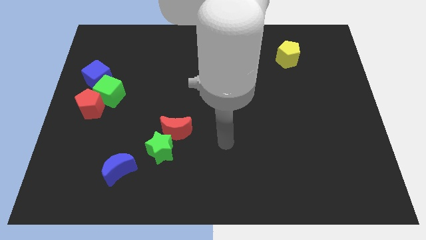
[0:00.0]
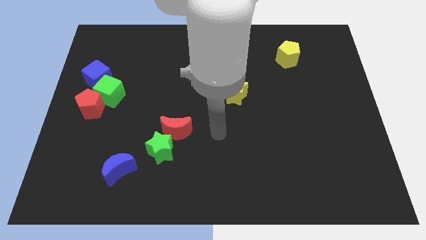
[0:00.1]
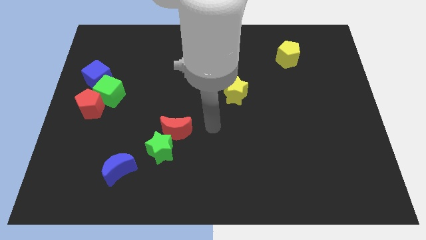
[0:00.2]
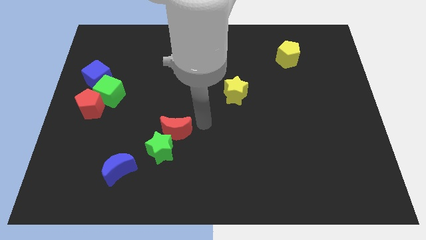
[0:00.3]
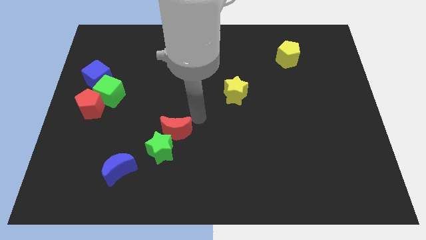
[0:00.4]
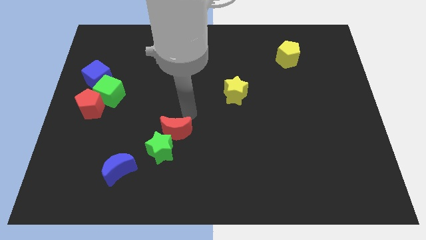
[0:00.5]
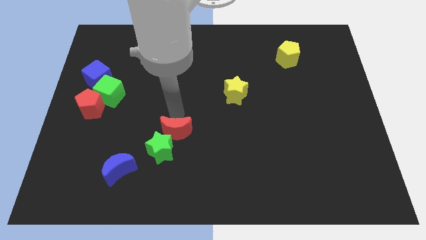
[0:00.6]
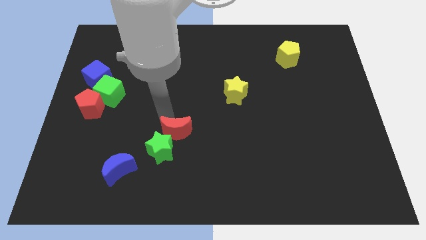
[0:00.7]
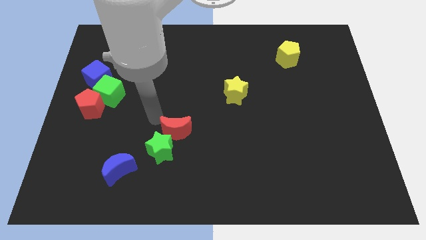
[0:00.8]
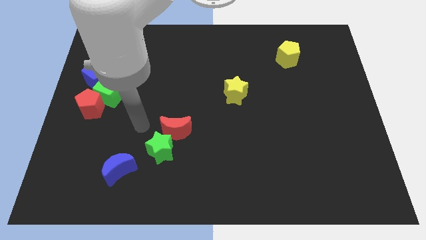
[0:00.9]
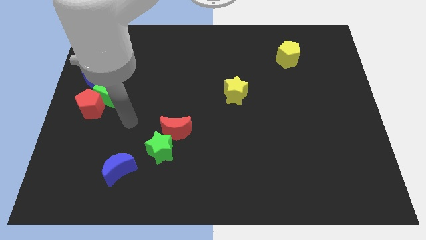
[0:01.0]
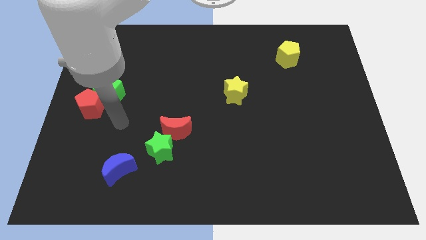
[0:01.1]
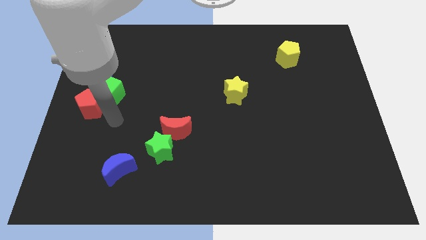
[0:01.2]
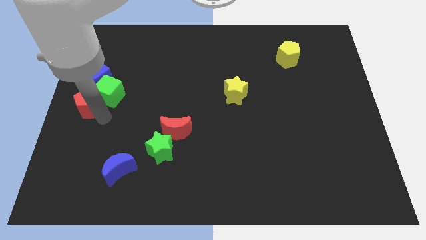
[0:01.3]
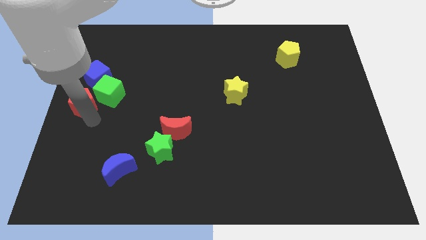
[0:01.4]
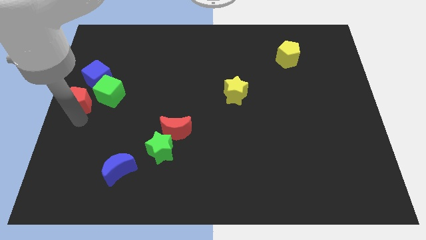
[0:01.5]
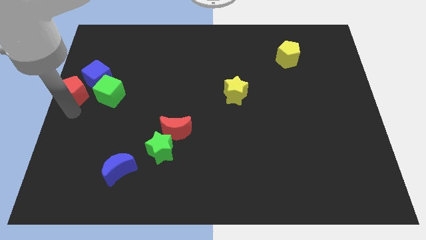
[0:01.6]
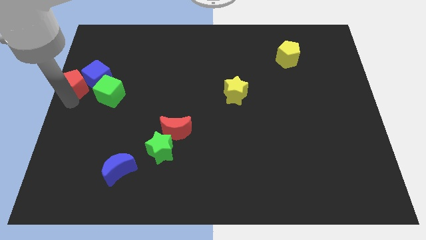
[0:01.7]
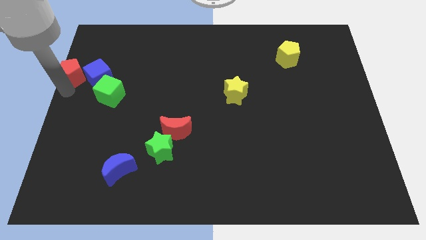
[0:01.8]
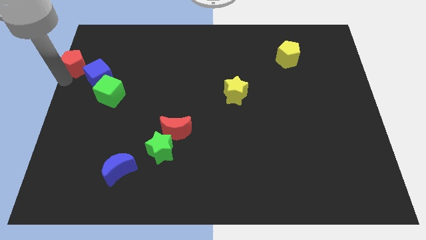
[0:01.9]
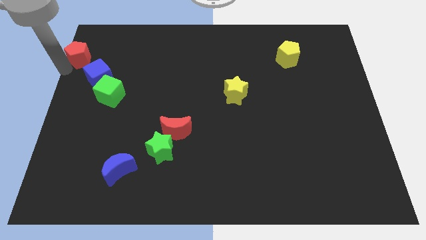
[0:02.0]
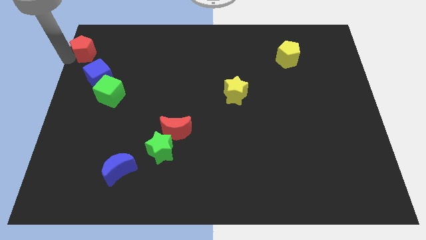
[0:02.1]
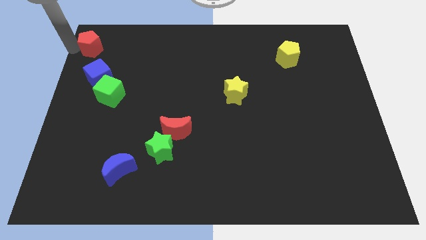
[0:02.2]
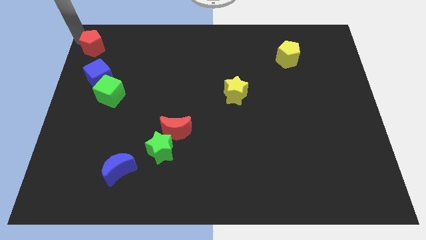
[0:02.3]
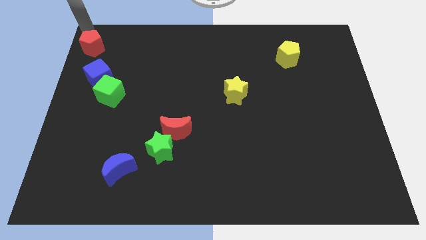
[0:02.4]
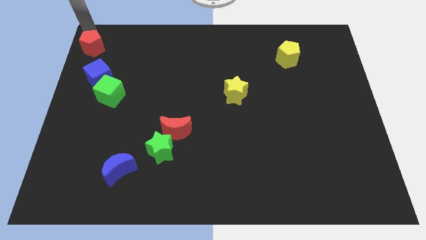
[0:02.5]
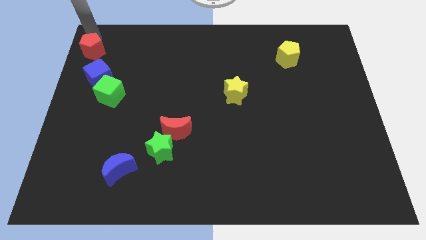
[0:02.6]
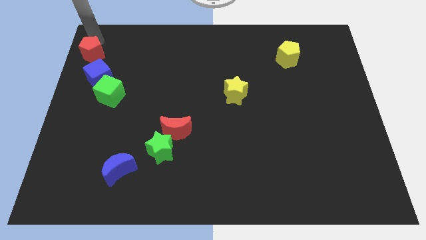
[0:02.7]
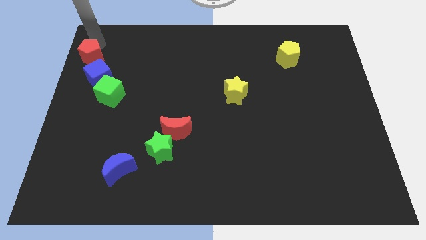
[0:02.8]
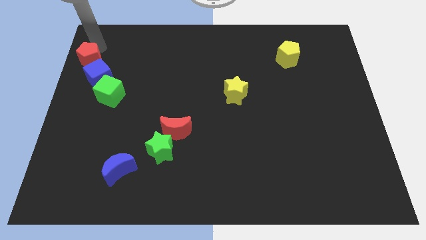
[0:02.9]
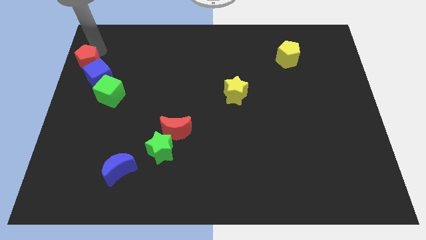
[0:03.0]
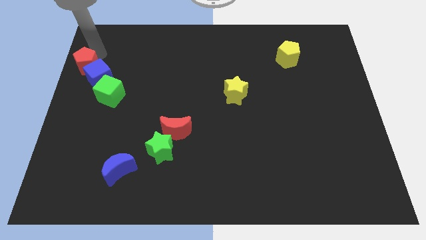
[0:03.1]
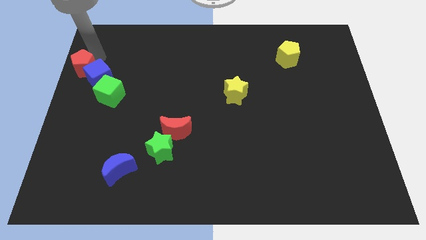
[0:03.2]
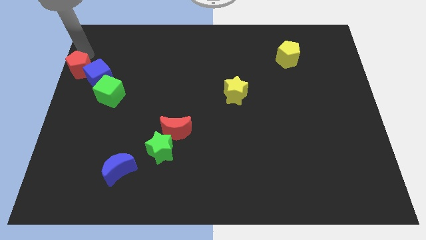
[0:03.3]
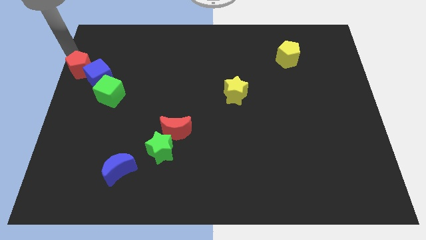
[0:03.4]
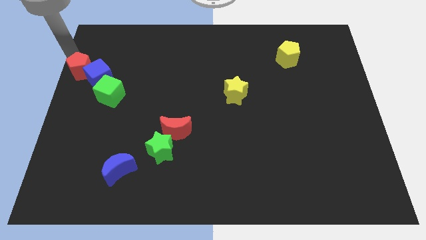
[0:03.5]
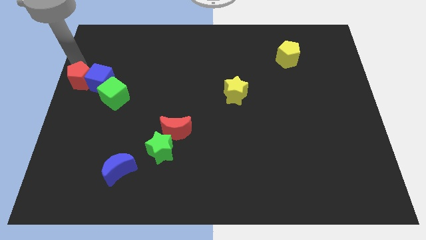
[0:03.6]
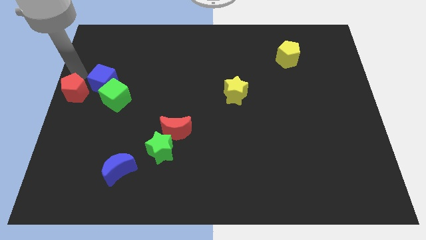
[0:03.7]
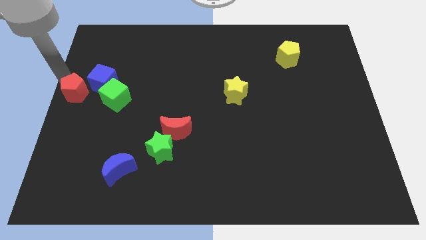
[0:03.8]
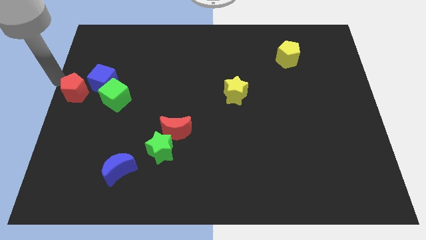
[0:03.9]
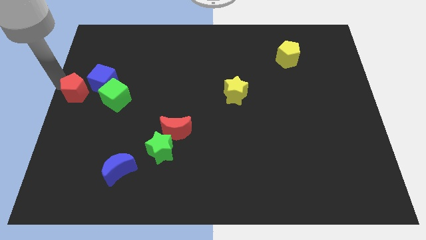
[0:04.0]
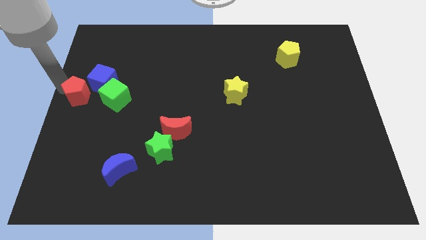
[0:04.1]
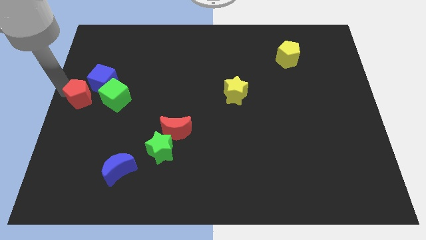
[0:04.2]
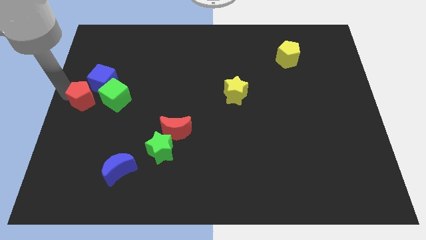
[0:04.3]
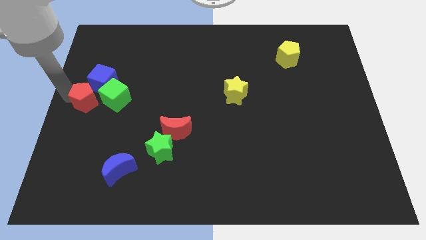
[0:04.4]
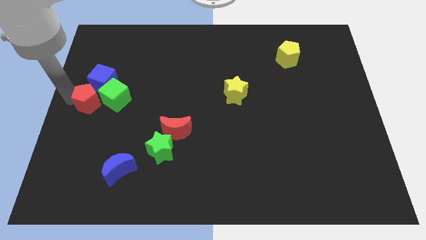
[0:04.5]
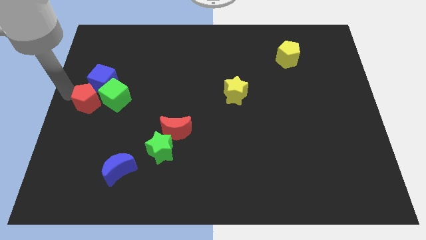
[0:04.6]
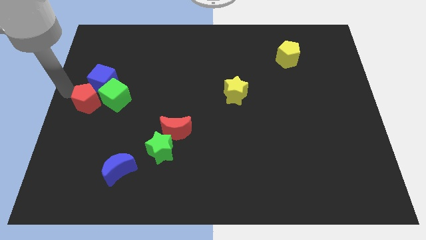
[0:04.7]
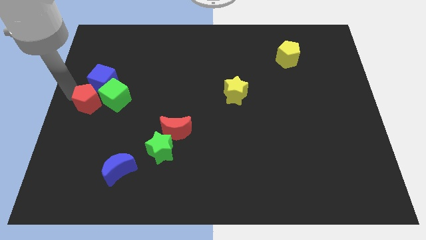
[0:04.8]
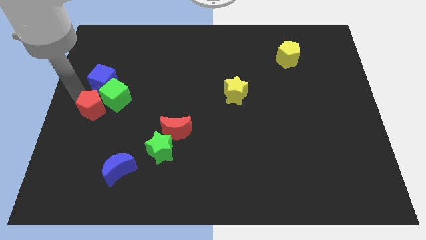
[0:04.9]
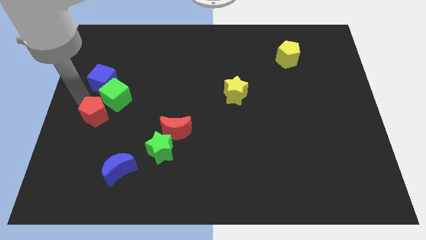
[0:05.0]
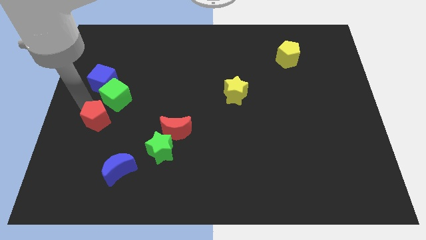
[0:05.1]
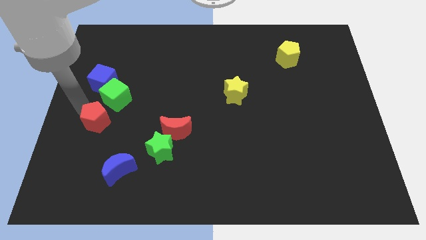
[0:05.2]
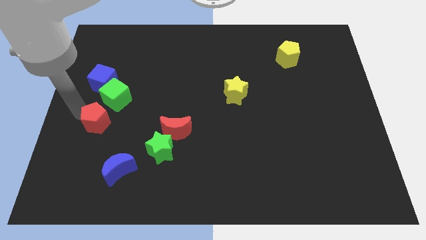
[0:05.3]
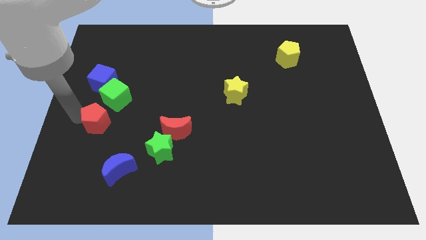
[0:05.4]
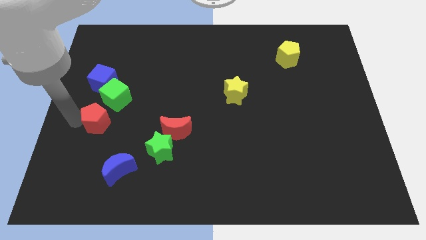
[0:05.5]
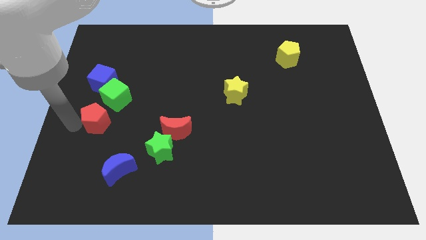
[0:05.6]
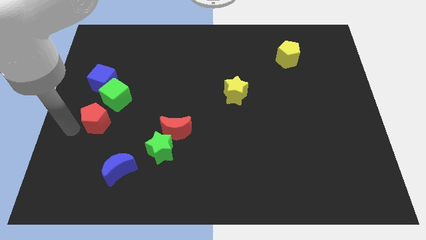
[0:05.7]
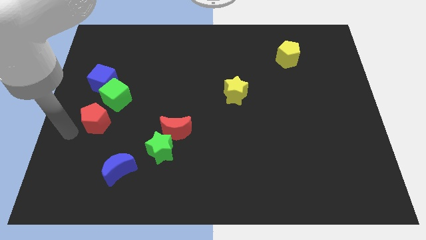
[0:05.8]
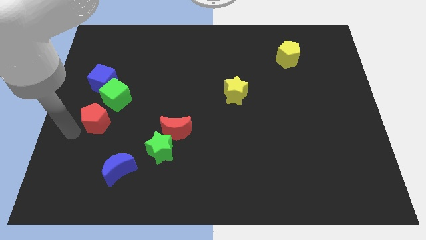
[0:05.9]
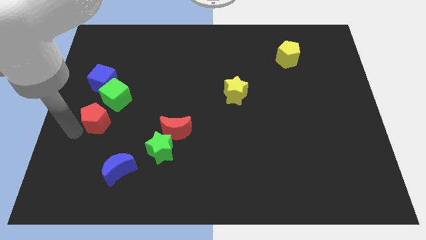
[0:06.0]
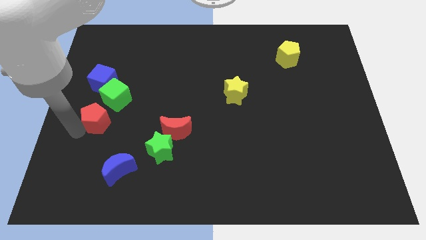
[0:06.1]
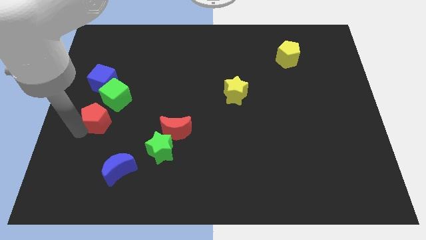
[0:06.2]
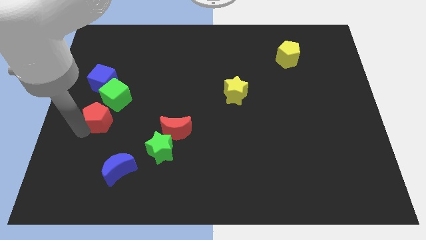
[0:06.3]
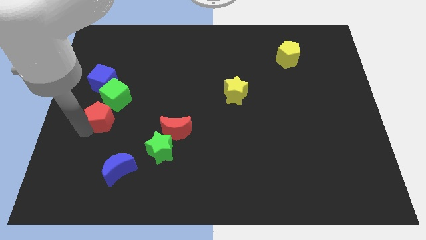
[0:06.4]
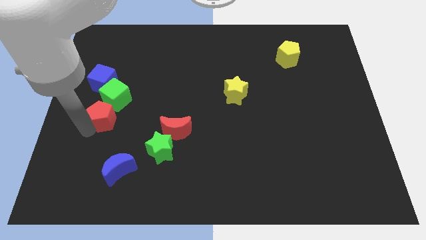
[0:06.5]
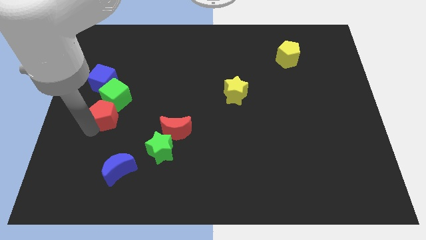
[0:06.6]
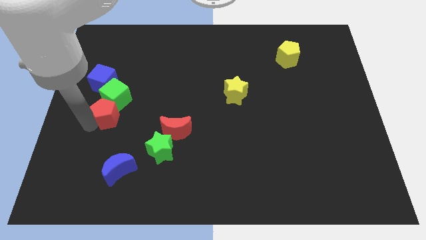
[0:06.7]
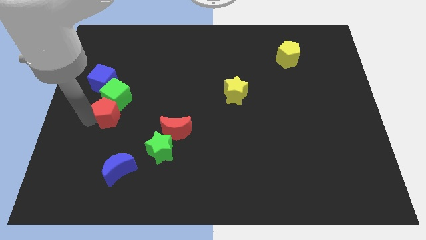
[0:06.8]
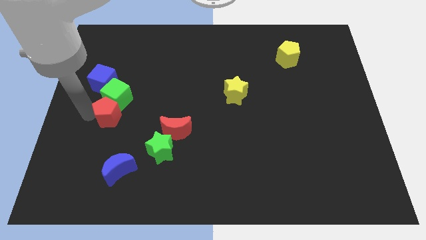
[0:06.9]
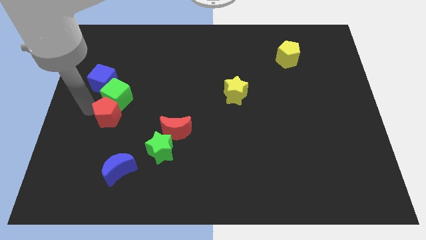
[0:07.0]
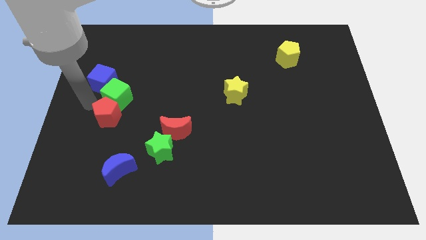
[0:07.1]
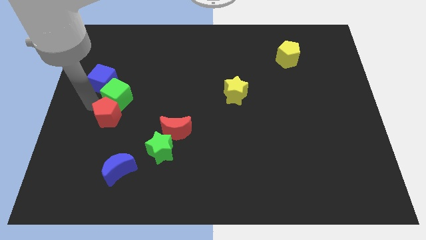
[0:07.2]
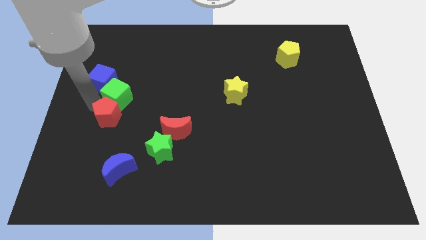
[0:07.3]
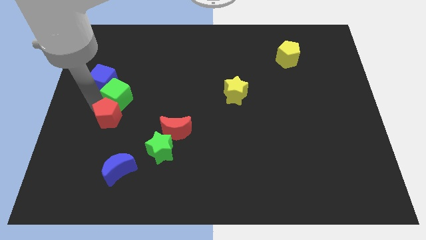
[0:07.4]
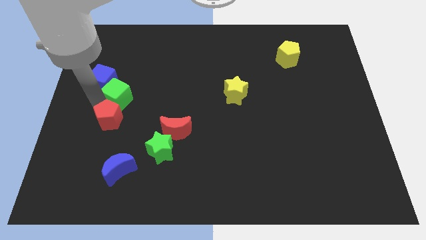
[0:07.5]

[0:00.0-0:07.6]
push the red pentagon to the top side of the blue moon
